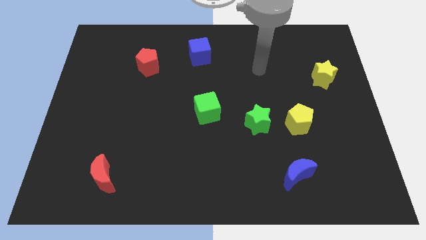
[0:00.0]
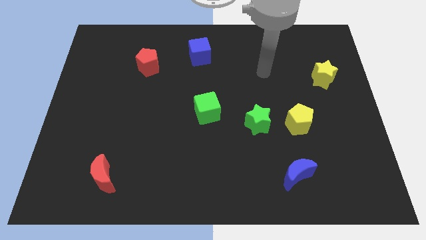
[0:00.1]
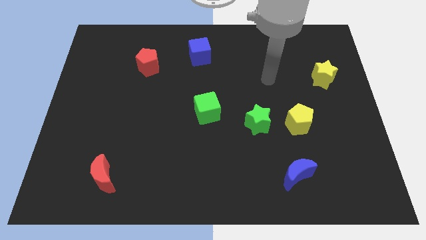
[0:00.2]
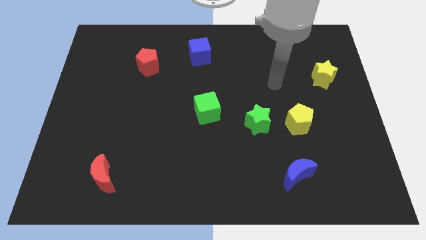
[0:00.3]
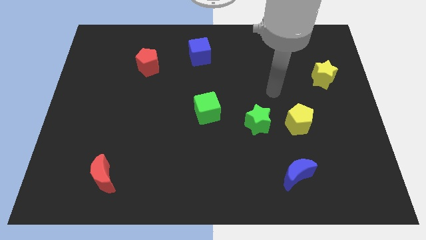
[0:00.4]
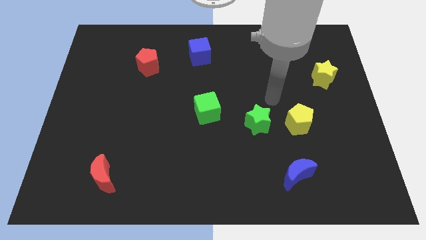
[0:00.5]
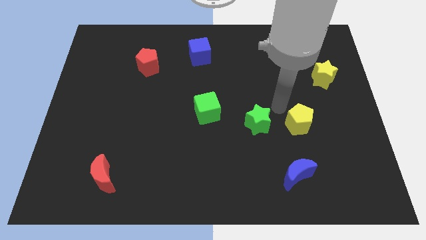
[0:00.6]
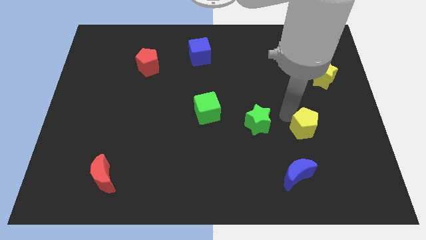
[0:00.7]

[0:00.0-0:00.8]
move the green star away from the yellow pentagon

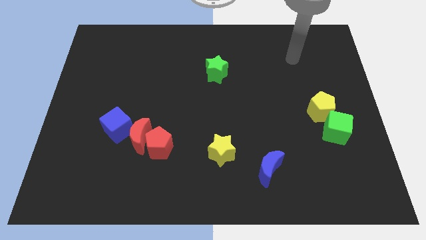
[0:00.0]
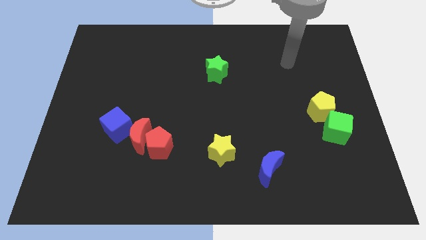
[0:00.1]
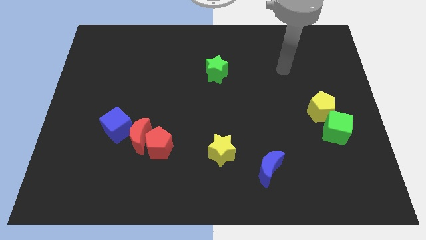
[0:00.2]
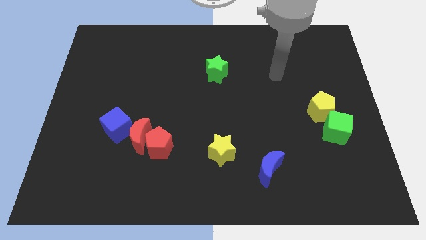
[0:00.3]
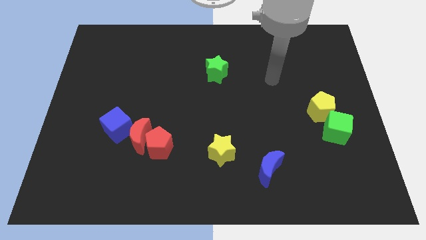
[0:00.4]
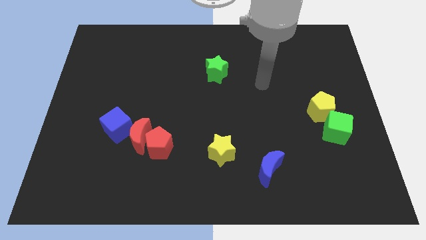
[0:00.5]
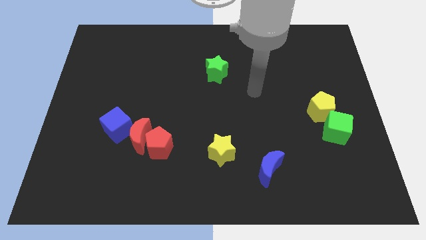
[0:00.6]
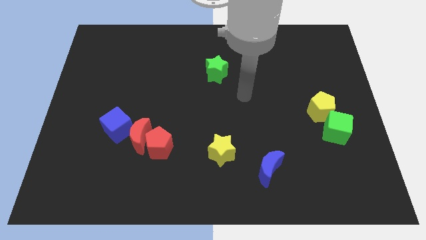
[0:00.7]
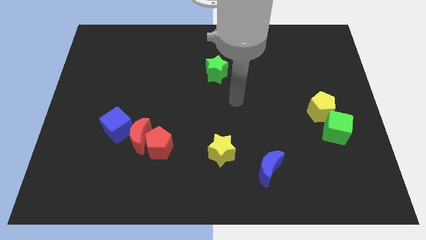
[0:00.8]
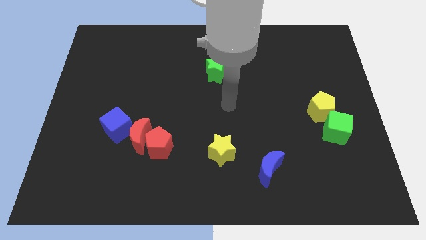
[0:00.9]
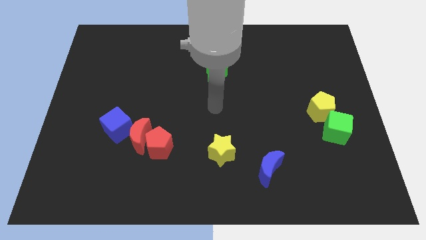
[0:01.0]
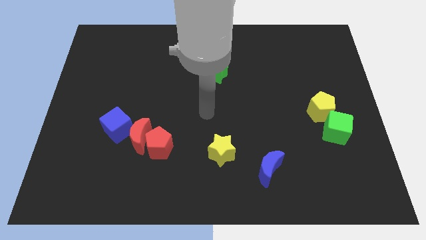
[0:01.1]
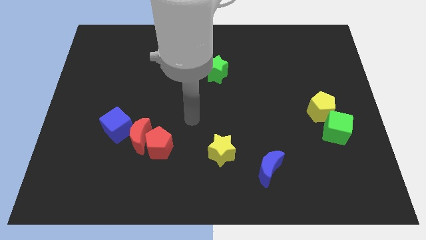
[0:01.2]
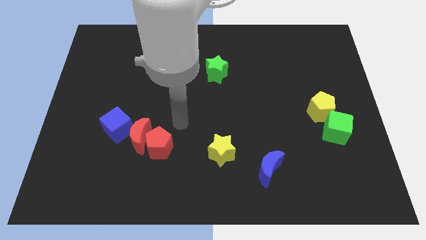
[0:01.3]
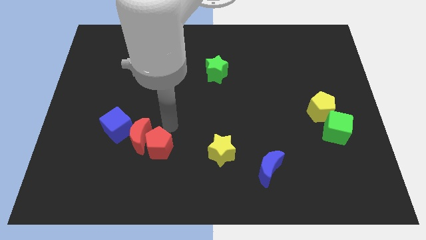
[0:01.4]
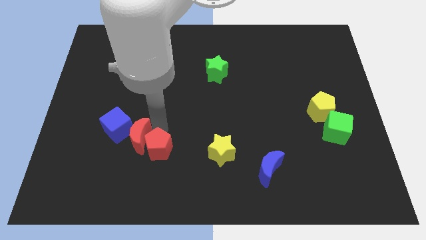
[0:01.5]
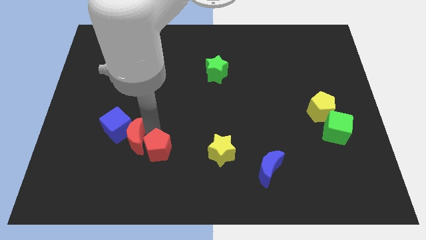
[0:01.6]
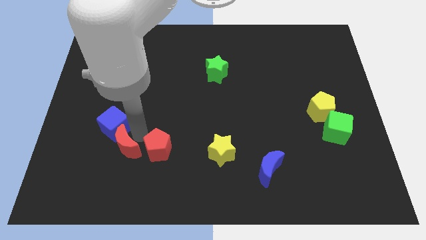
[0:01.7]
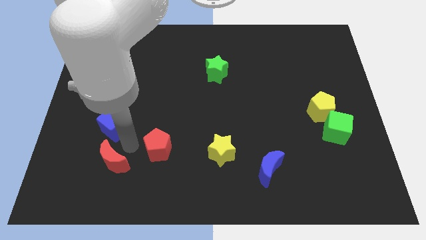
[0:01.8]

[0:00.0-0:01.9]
pull the red pentagon apart from the red moon

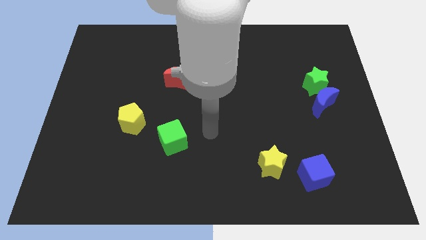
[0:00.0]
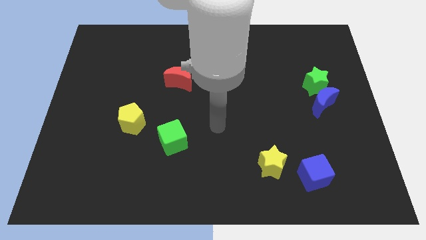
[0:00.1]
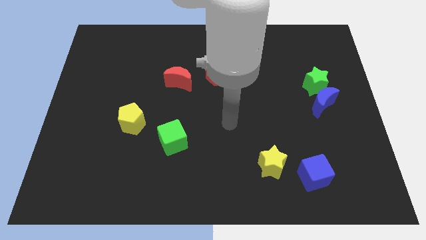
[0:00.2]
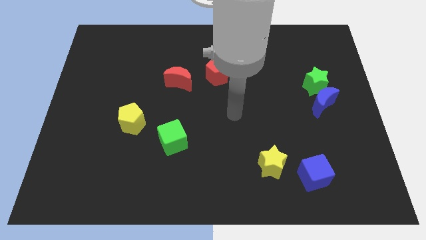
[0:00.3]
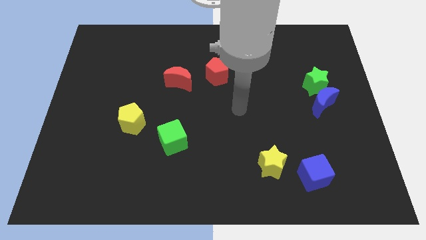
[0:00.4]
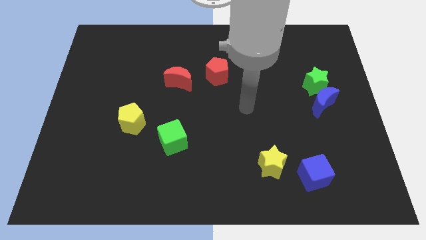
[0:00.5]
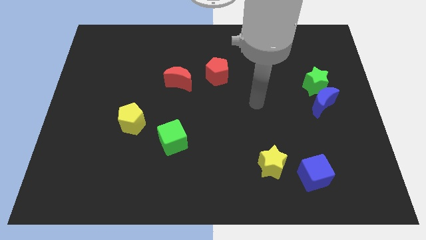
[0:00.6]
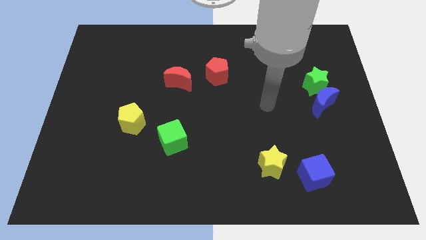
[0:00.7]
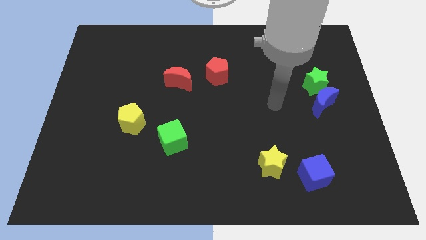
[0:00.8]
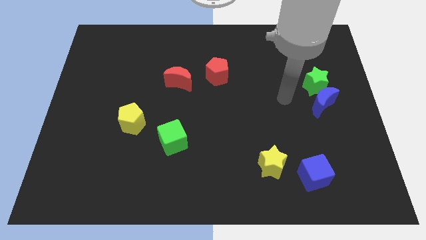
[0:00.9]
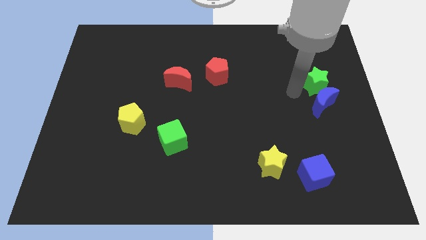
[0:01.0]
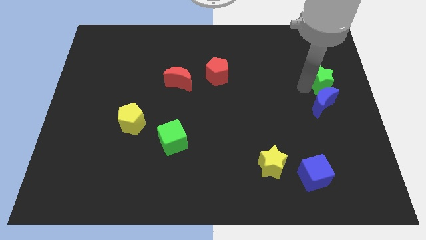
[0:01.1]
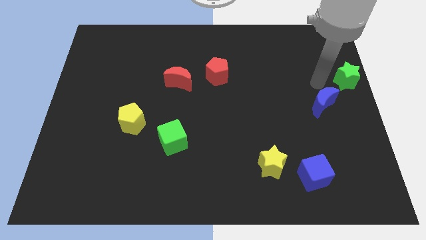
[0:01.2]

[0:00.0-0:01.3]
move the blue moon away from the green star

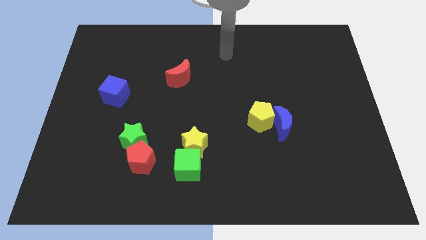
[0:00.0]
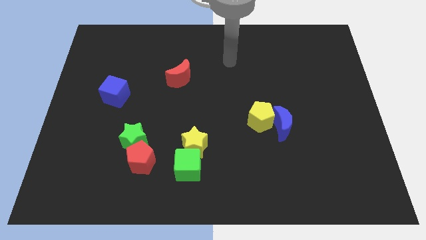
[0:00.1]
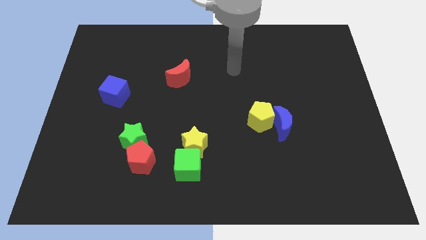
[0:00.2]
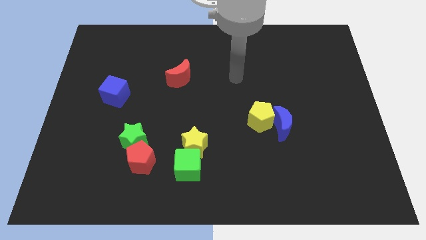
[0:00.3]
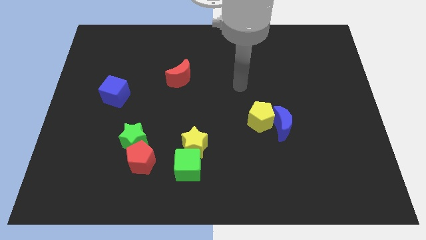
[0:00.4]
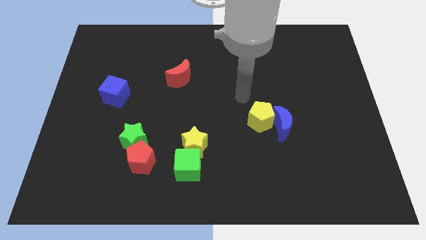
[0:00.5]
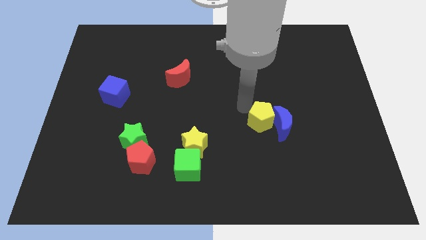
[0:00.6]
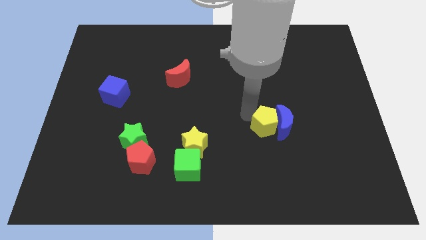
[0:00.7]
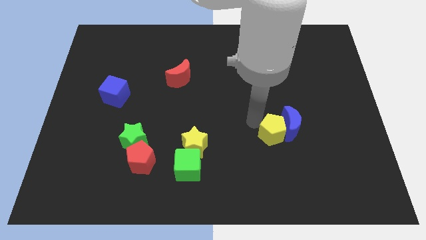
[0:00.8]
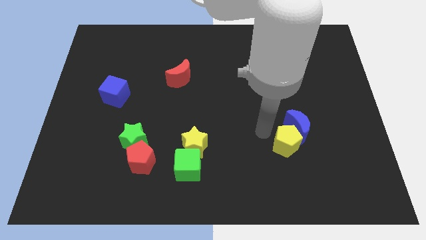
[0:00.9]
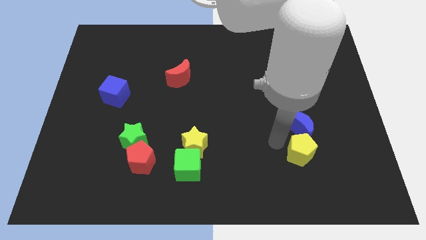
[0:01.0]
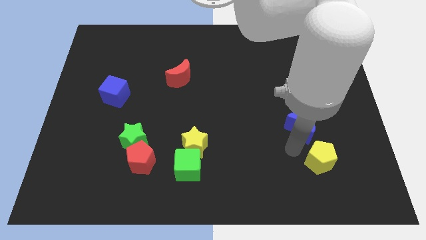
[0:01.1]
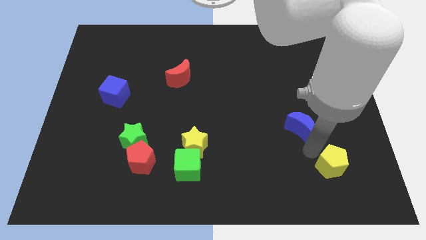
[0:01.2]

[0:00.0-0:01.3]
pull the blue moon apart from the yellow pentagon

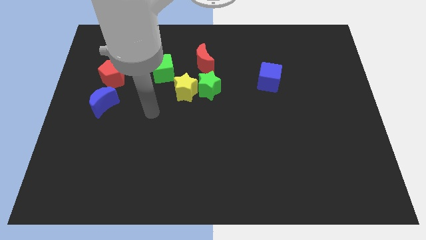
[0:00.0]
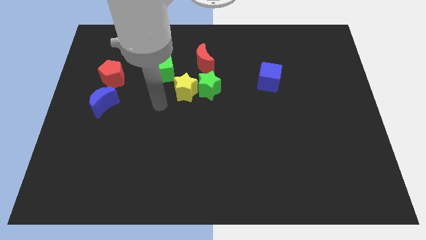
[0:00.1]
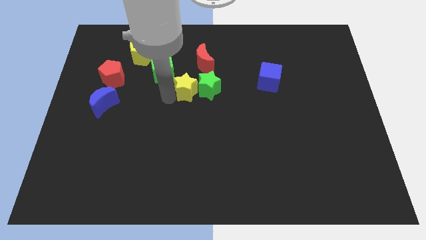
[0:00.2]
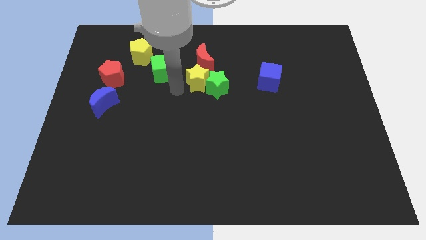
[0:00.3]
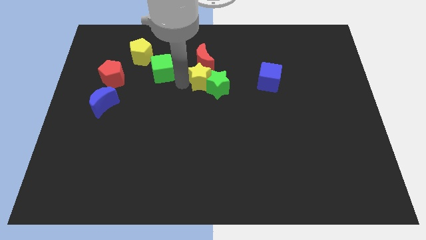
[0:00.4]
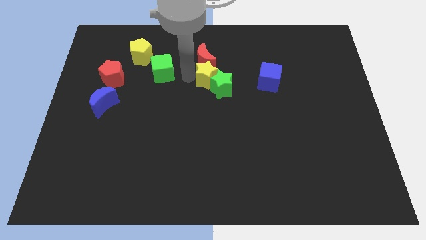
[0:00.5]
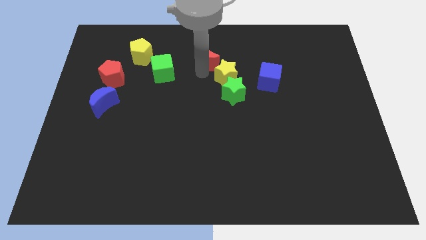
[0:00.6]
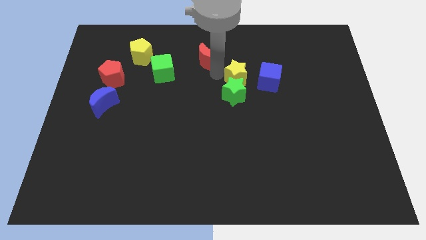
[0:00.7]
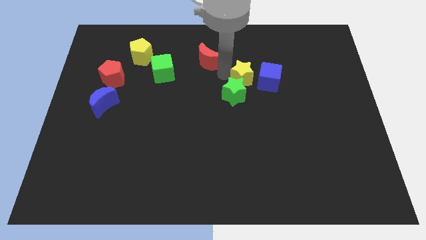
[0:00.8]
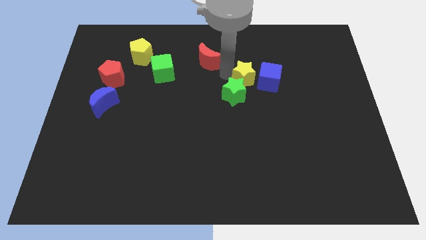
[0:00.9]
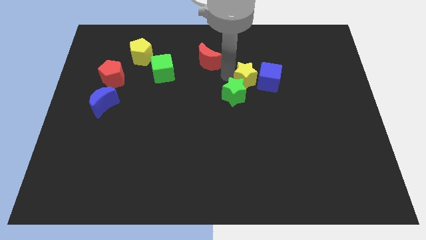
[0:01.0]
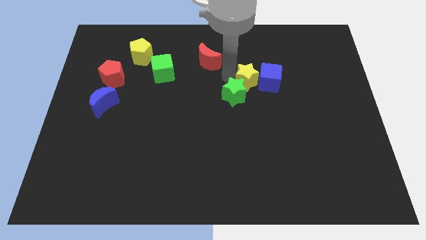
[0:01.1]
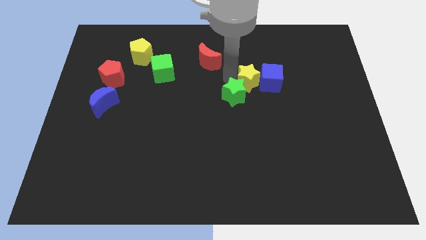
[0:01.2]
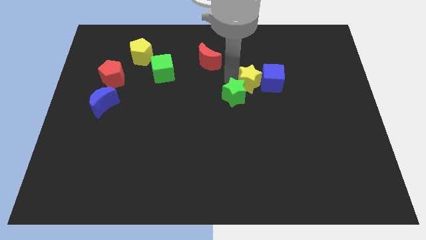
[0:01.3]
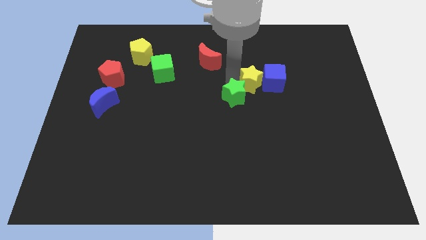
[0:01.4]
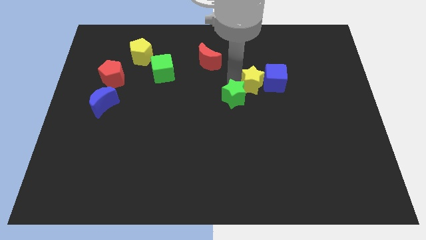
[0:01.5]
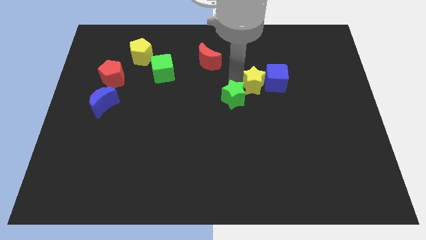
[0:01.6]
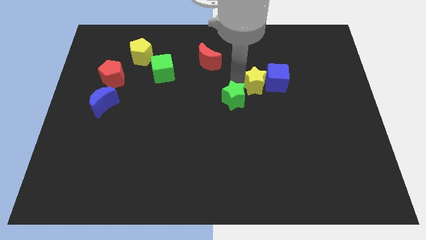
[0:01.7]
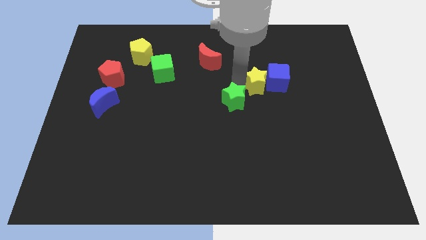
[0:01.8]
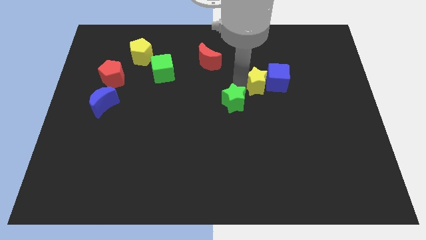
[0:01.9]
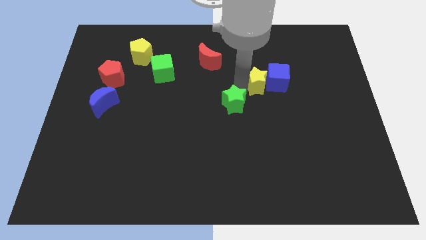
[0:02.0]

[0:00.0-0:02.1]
separate the green star from the yellow star and red moon

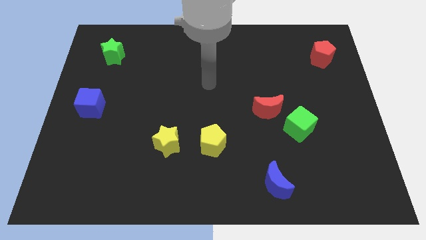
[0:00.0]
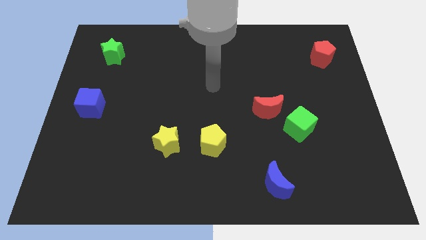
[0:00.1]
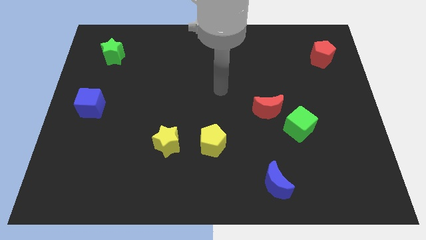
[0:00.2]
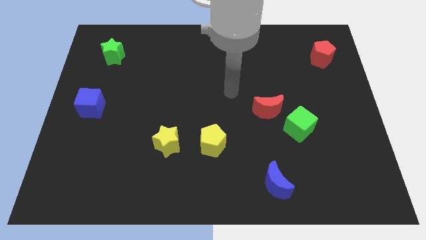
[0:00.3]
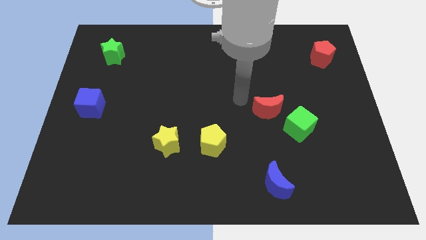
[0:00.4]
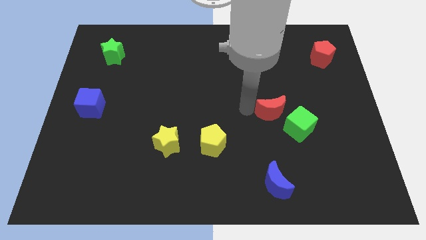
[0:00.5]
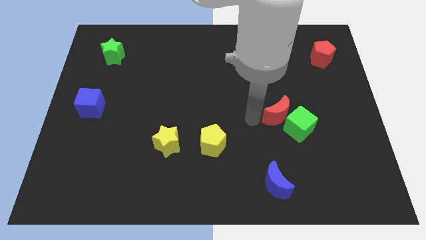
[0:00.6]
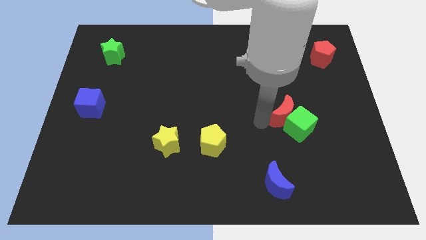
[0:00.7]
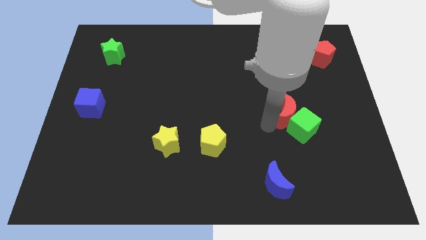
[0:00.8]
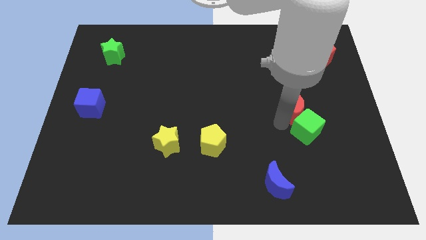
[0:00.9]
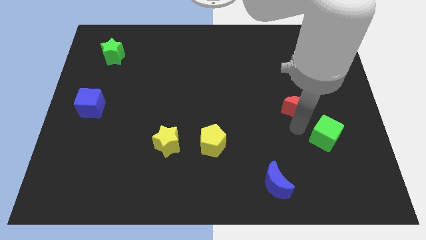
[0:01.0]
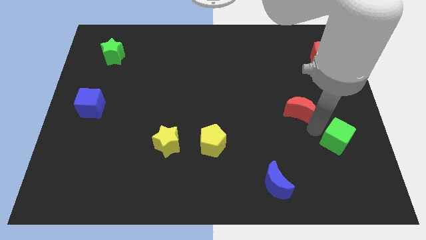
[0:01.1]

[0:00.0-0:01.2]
move the red moon away from the green cube

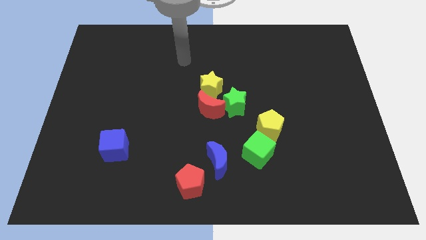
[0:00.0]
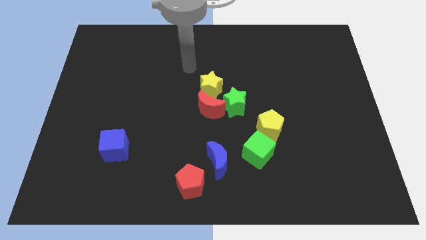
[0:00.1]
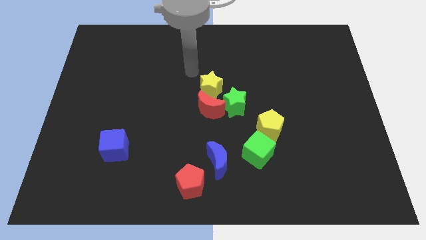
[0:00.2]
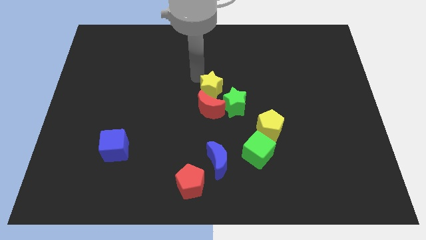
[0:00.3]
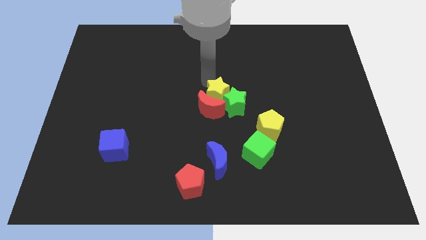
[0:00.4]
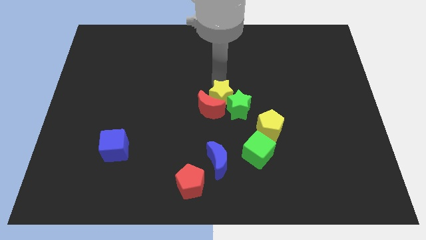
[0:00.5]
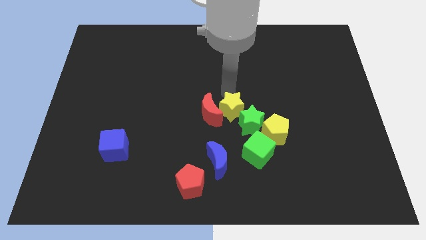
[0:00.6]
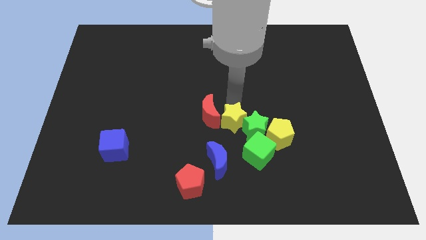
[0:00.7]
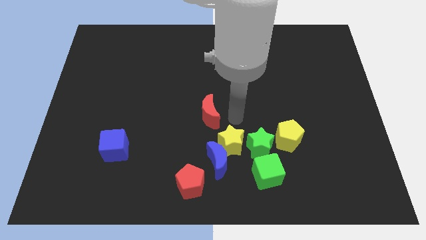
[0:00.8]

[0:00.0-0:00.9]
pull the red moon apart from the green star and yellow star
